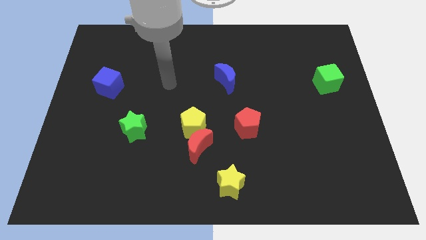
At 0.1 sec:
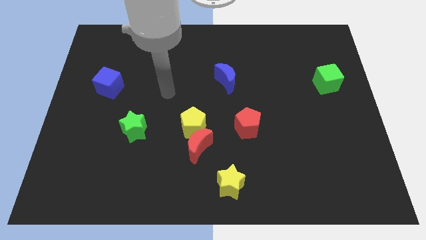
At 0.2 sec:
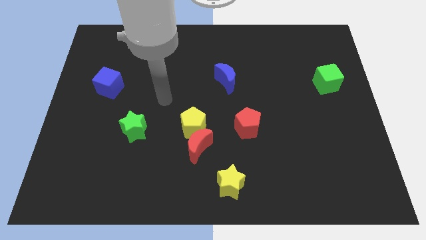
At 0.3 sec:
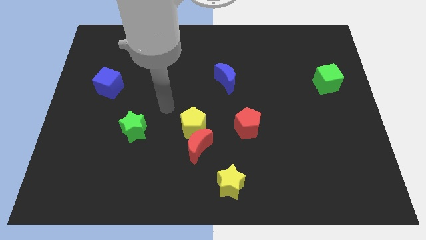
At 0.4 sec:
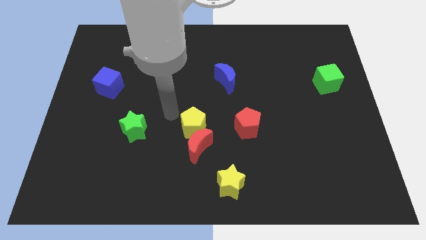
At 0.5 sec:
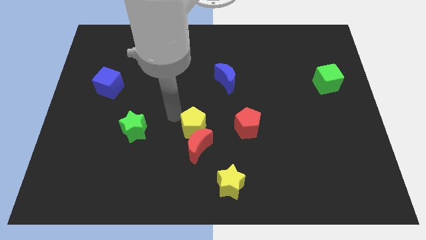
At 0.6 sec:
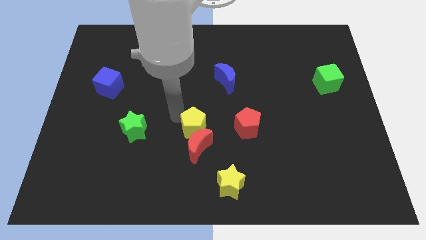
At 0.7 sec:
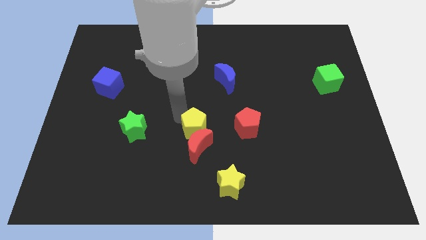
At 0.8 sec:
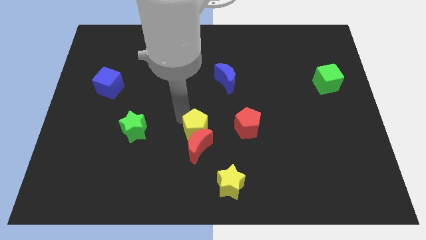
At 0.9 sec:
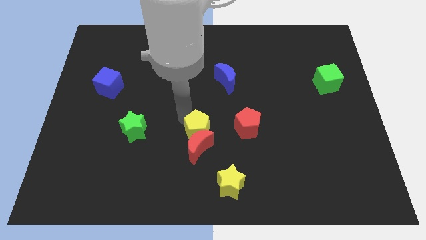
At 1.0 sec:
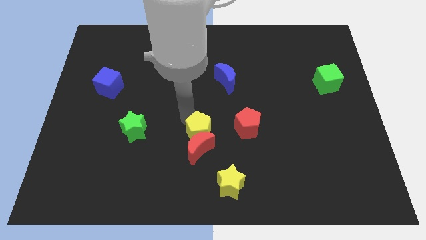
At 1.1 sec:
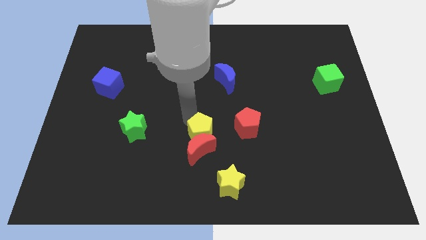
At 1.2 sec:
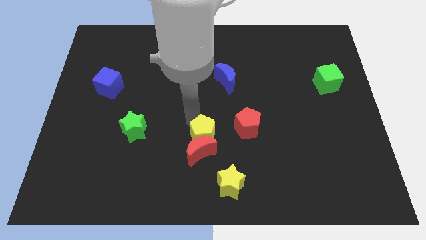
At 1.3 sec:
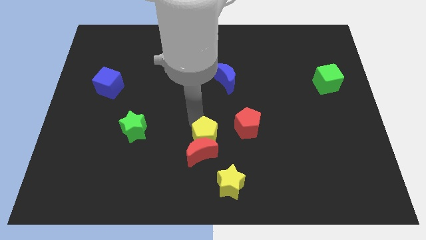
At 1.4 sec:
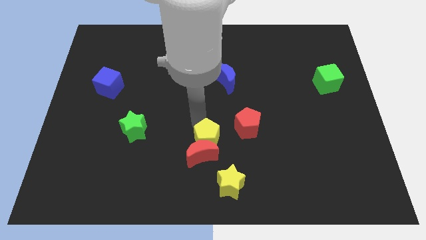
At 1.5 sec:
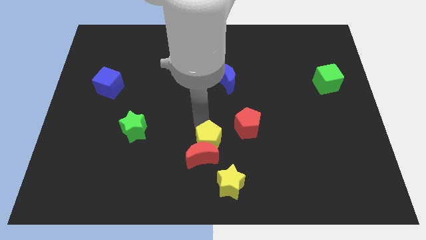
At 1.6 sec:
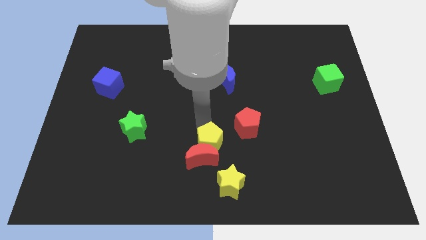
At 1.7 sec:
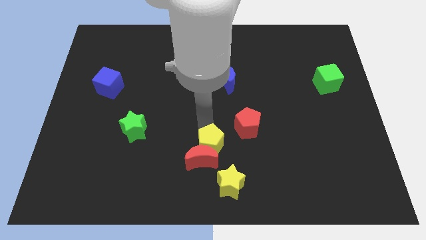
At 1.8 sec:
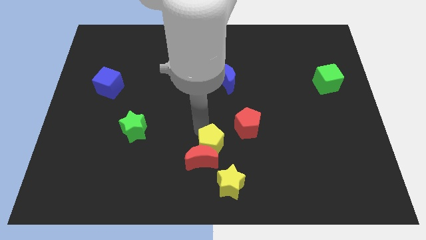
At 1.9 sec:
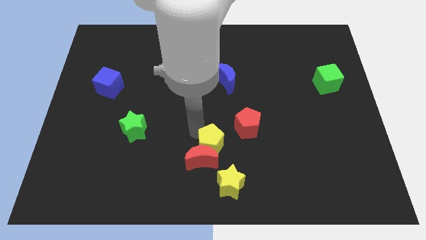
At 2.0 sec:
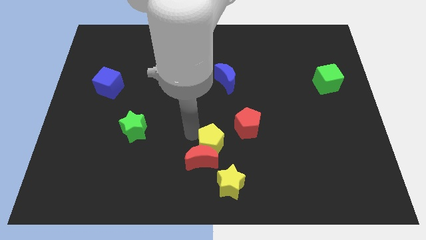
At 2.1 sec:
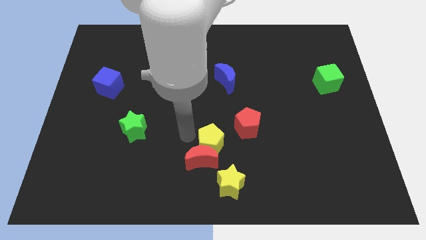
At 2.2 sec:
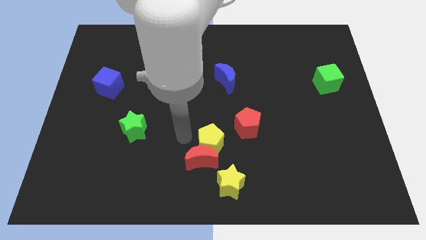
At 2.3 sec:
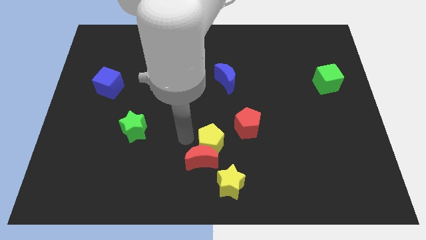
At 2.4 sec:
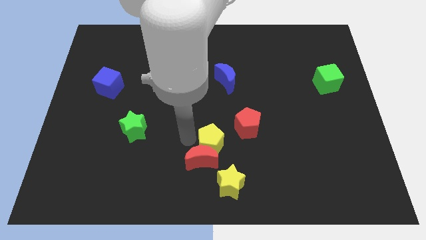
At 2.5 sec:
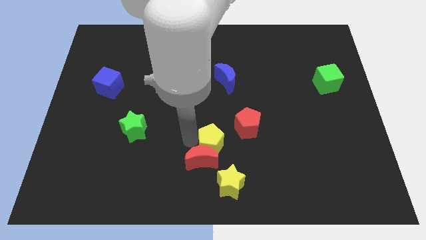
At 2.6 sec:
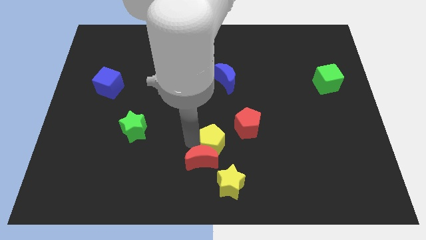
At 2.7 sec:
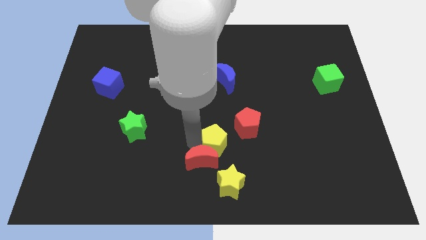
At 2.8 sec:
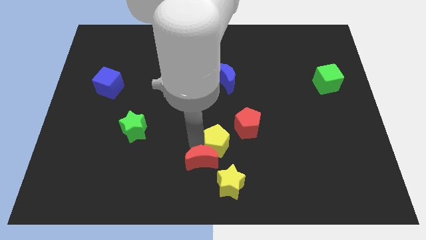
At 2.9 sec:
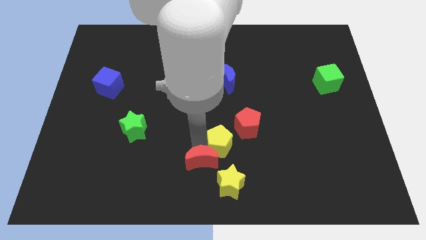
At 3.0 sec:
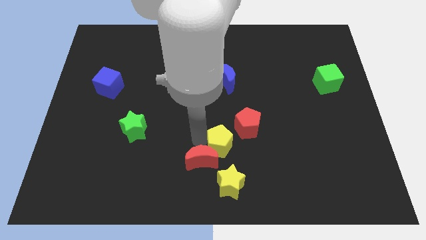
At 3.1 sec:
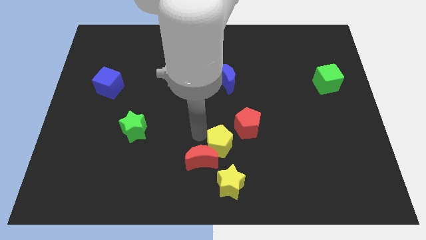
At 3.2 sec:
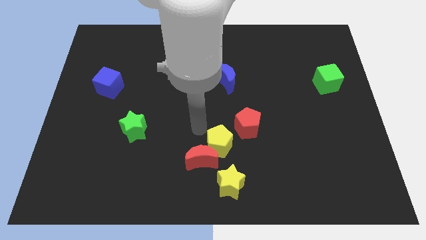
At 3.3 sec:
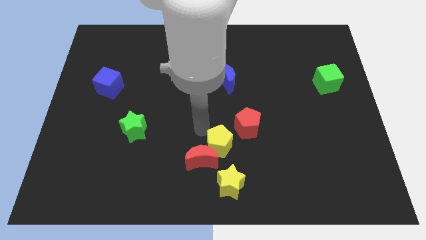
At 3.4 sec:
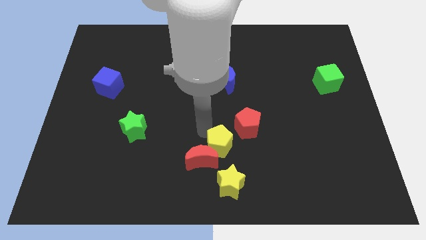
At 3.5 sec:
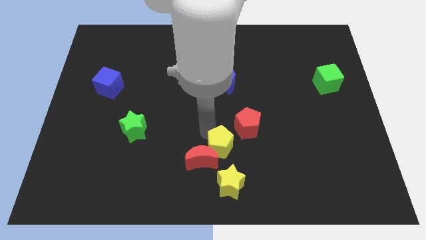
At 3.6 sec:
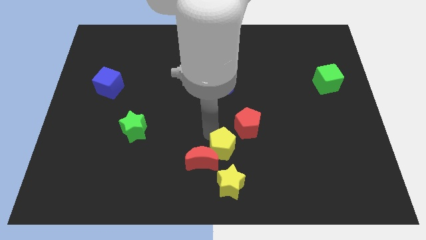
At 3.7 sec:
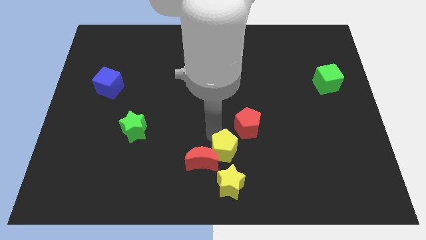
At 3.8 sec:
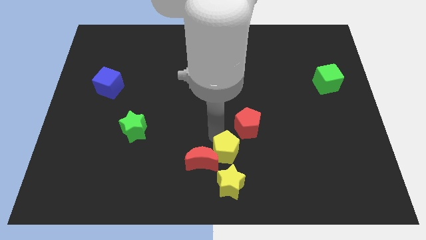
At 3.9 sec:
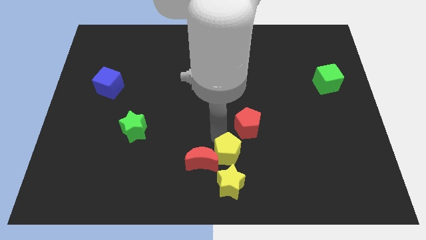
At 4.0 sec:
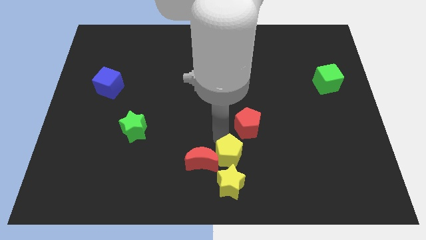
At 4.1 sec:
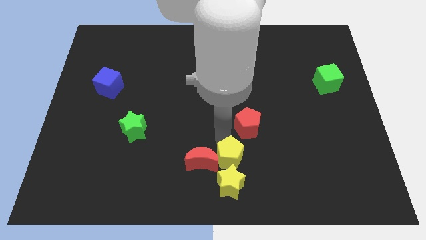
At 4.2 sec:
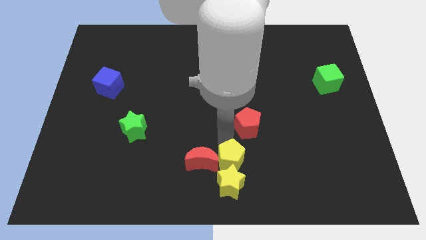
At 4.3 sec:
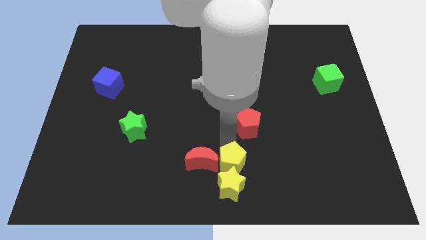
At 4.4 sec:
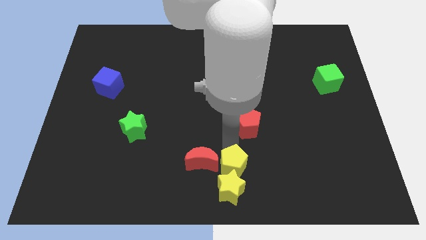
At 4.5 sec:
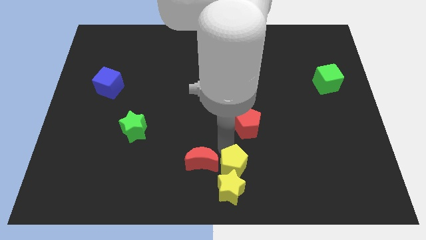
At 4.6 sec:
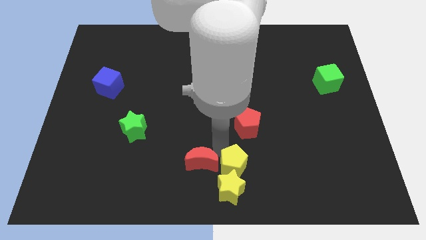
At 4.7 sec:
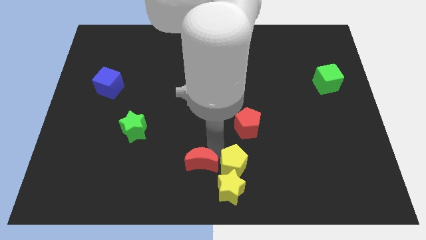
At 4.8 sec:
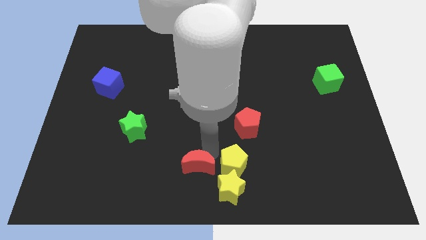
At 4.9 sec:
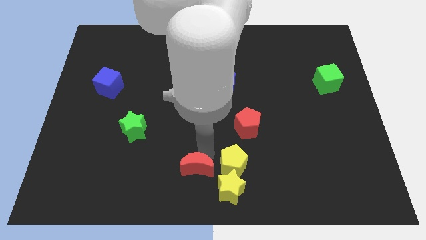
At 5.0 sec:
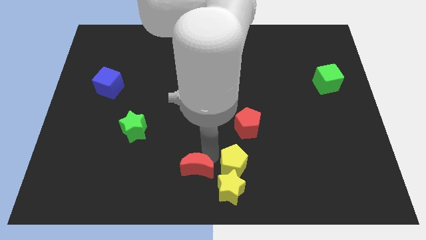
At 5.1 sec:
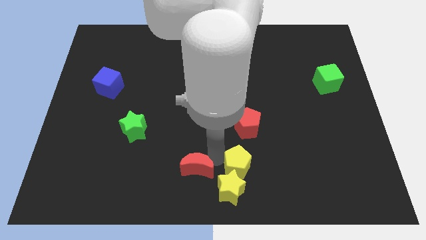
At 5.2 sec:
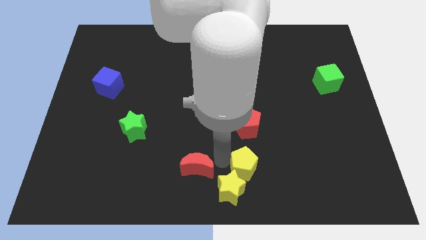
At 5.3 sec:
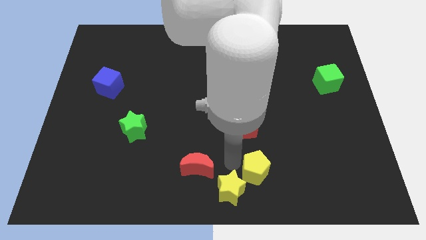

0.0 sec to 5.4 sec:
slide the yellow pentagon just right of the yellow star

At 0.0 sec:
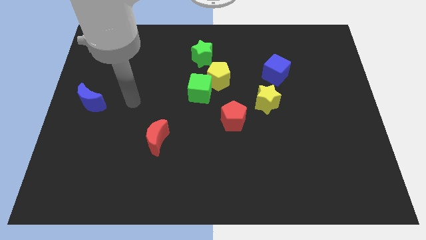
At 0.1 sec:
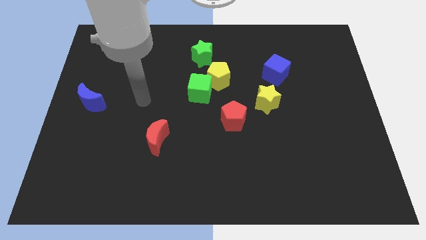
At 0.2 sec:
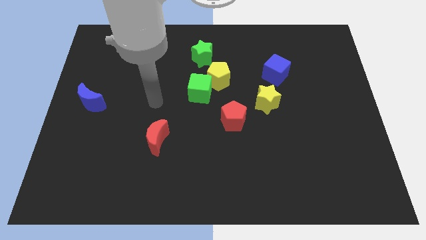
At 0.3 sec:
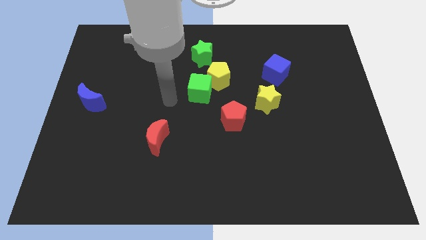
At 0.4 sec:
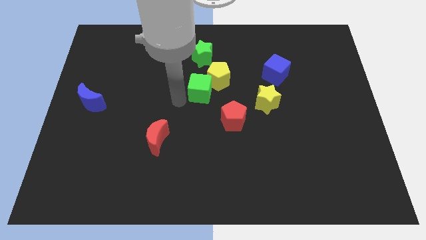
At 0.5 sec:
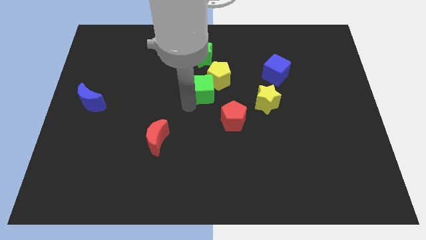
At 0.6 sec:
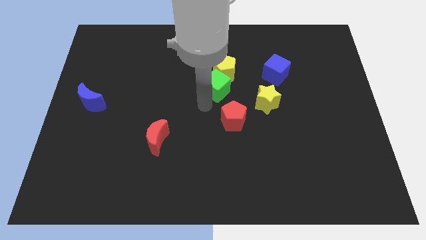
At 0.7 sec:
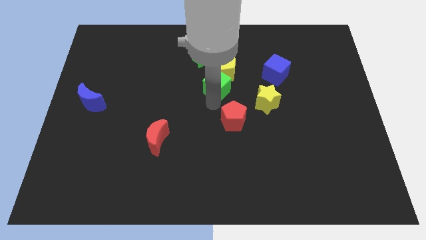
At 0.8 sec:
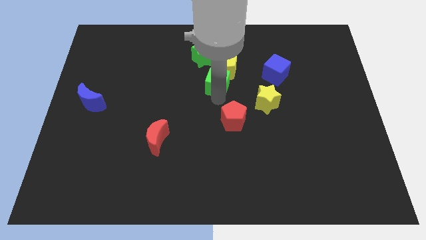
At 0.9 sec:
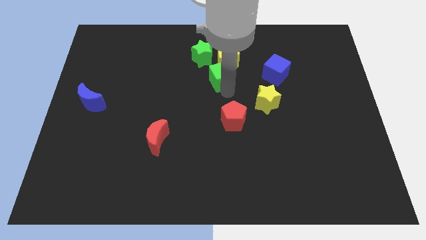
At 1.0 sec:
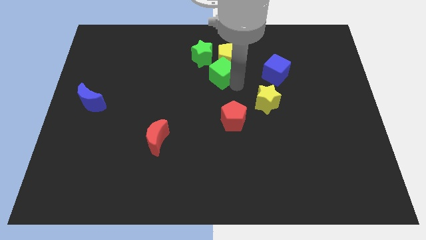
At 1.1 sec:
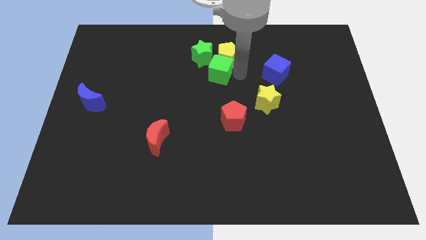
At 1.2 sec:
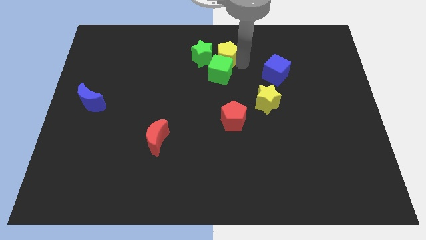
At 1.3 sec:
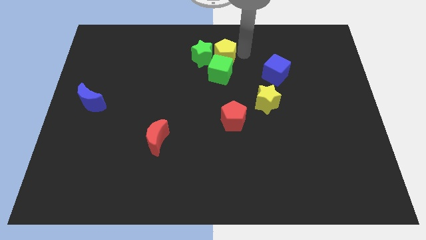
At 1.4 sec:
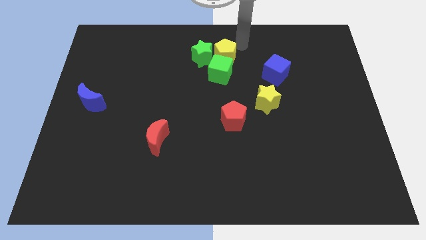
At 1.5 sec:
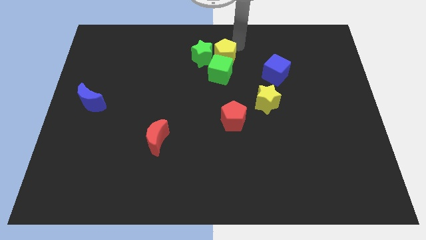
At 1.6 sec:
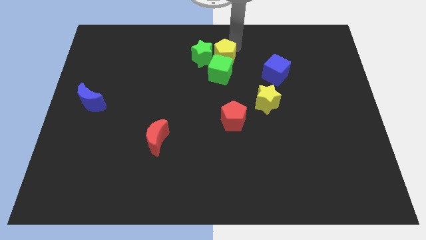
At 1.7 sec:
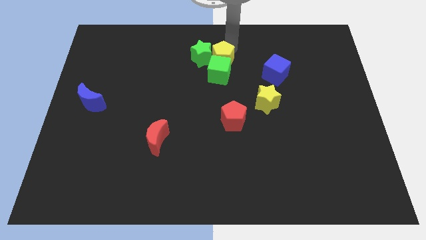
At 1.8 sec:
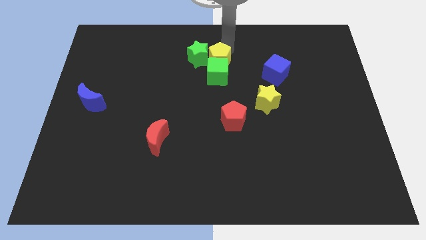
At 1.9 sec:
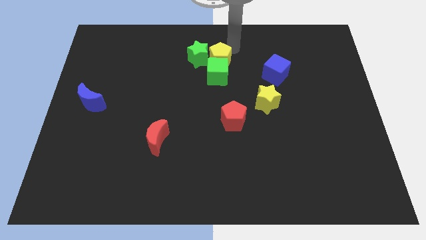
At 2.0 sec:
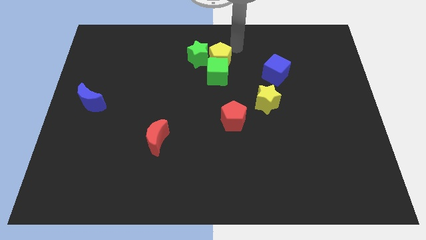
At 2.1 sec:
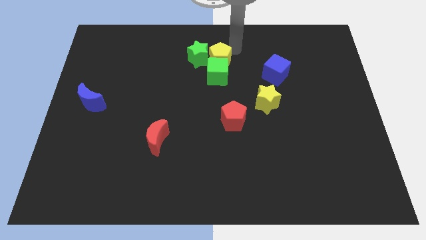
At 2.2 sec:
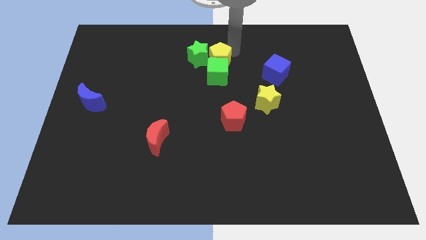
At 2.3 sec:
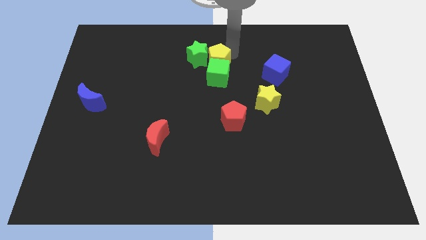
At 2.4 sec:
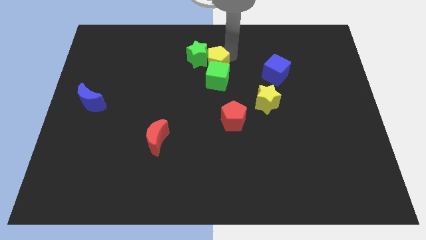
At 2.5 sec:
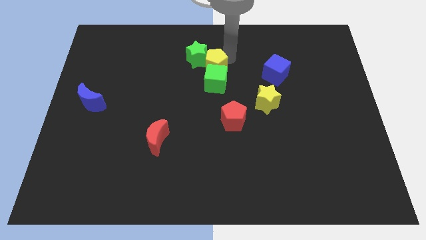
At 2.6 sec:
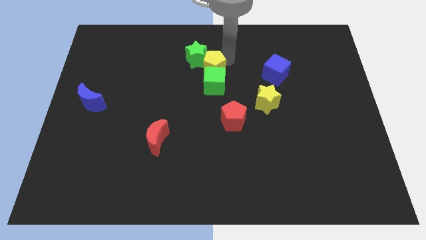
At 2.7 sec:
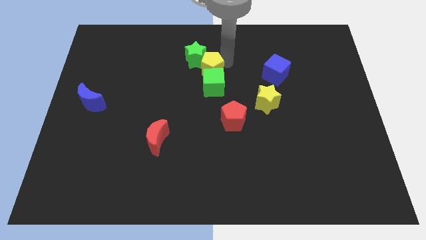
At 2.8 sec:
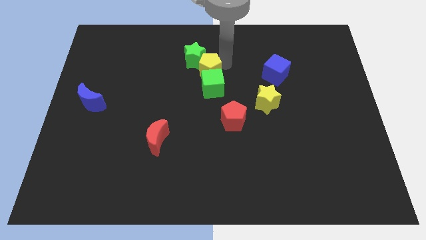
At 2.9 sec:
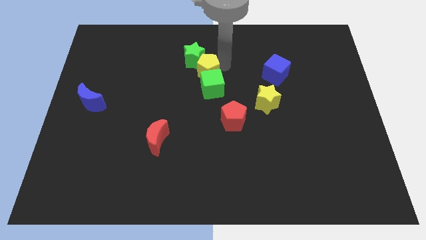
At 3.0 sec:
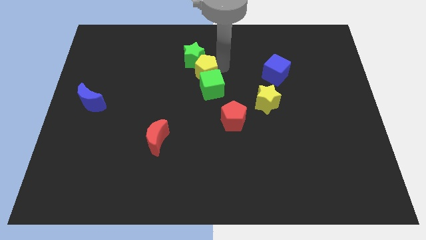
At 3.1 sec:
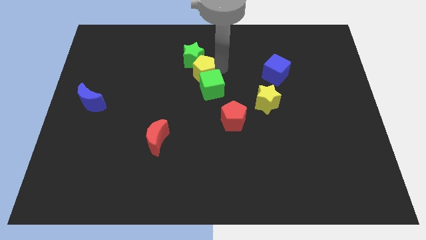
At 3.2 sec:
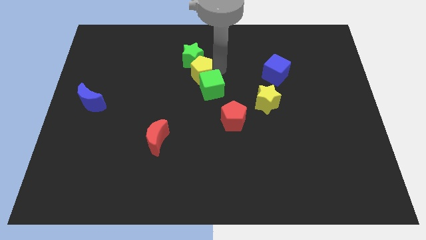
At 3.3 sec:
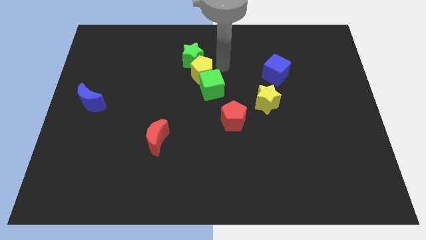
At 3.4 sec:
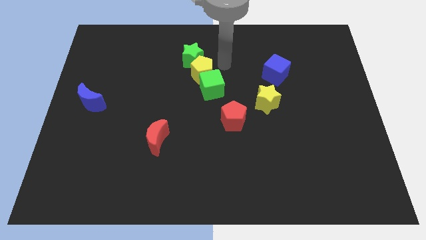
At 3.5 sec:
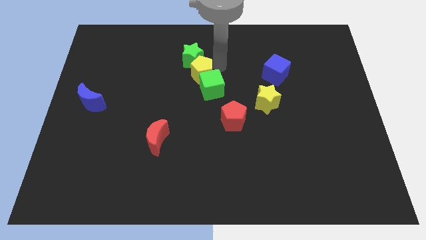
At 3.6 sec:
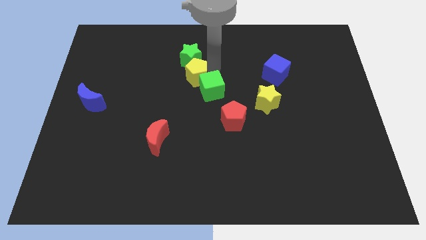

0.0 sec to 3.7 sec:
put the yellow pentagon left of the green cube
